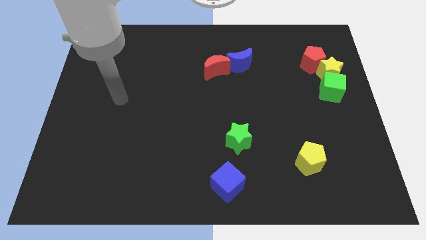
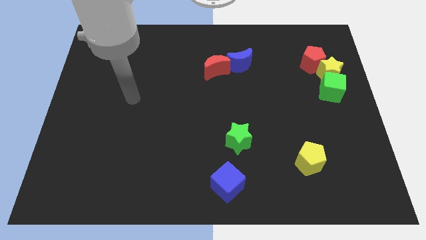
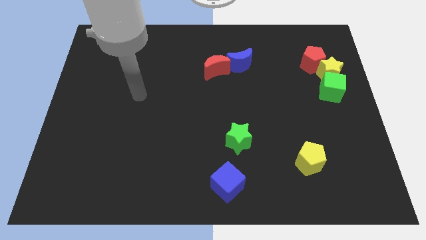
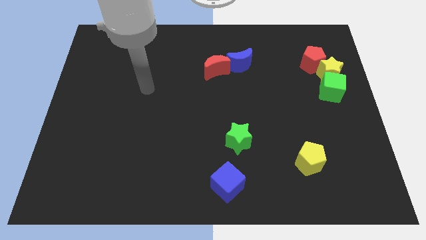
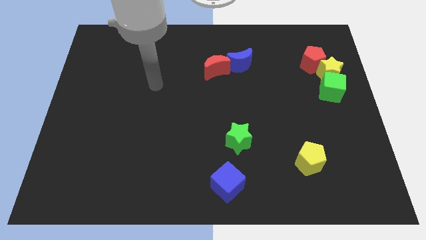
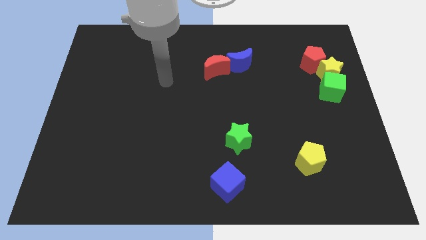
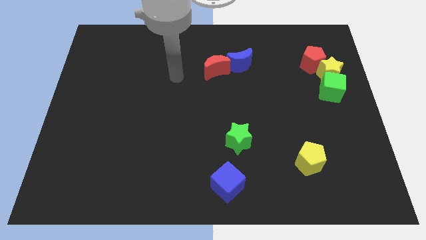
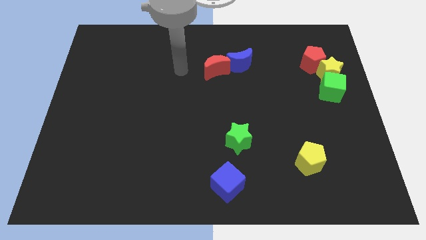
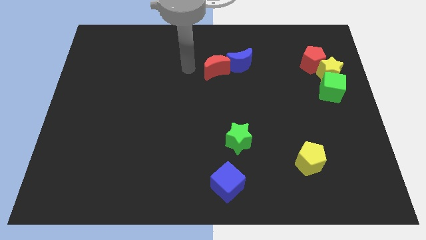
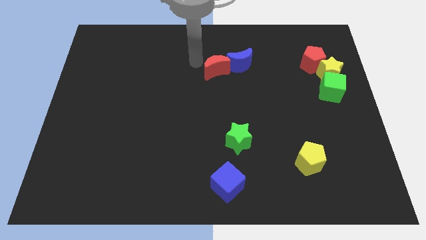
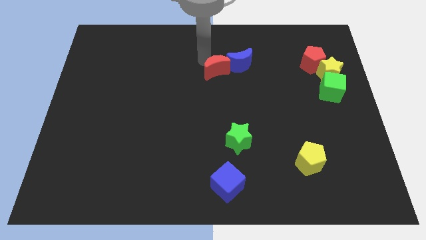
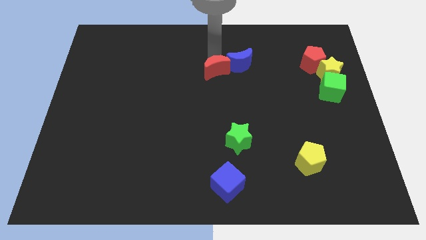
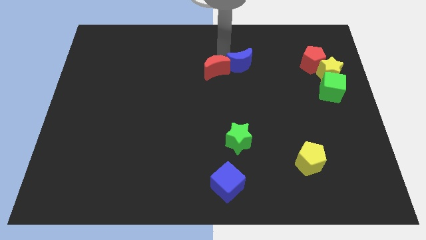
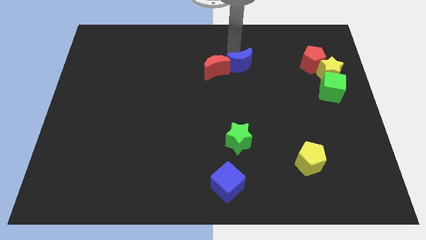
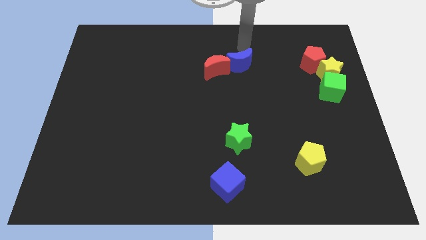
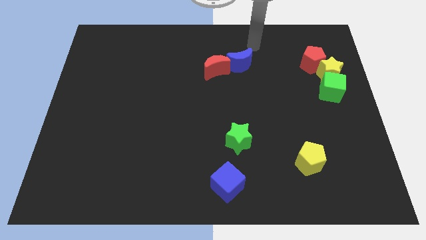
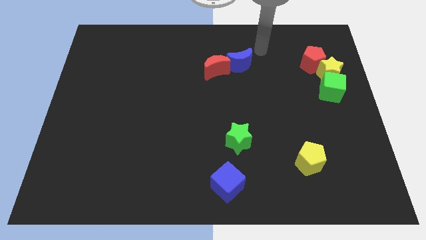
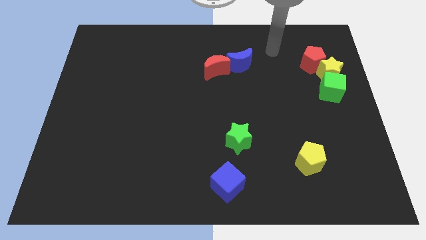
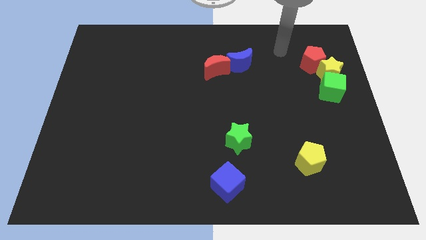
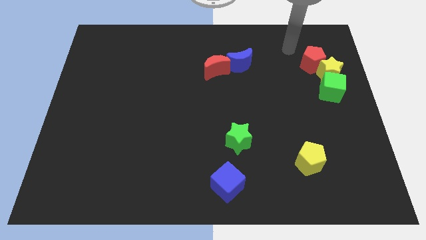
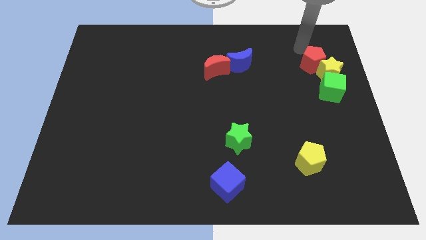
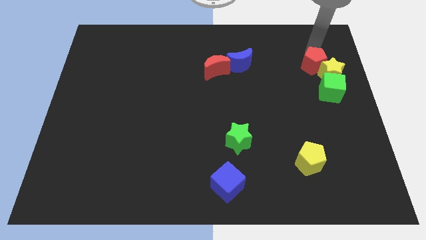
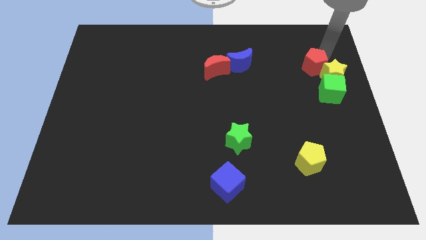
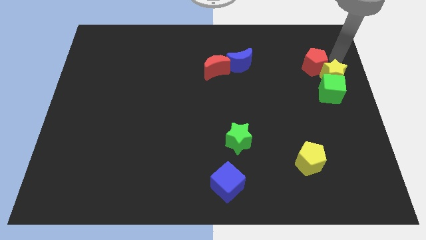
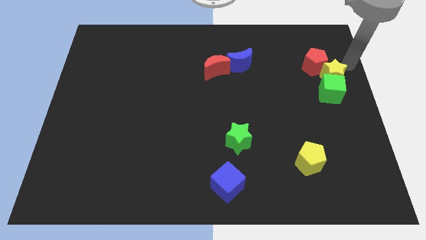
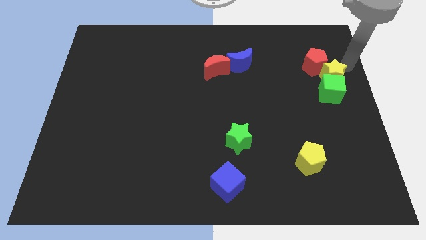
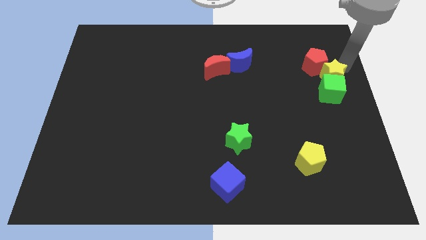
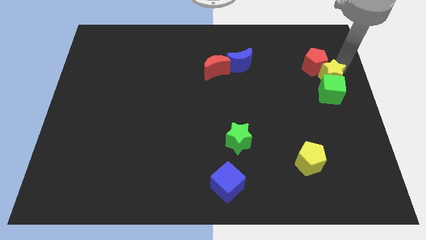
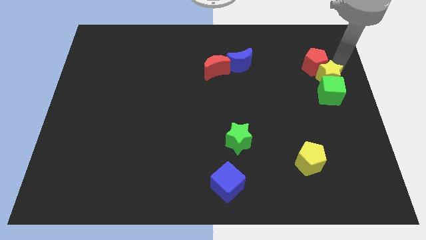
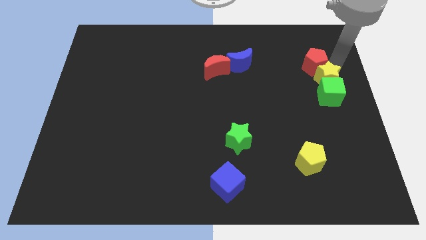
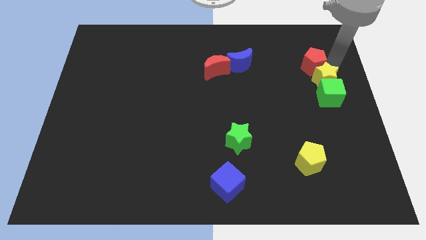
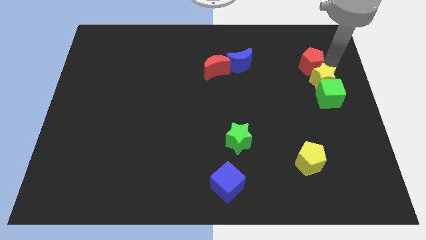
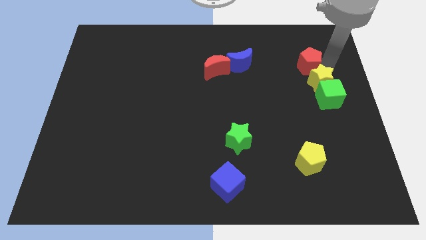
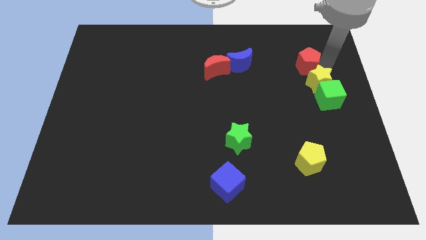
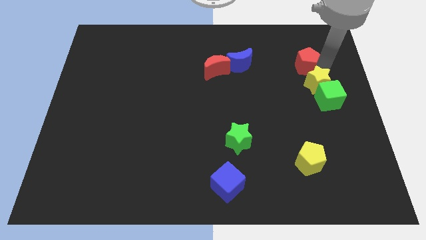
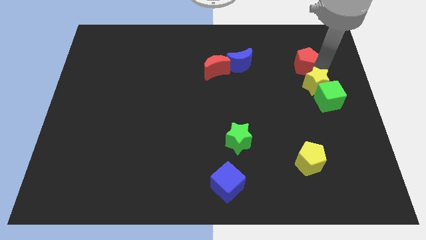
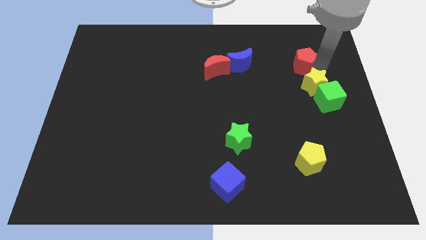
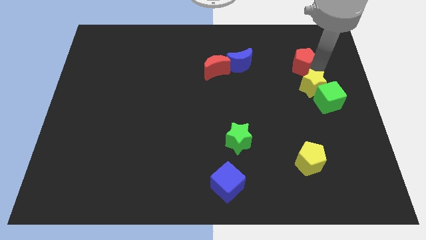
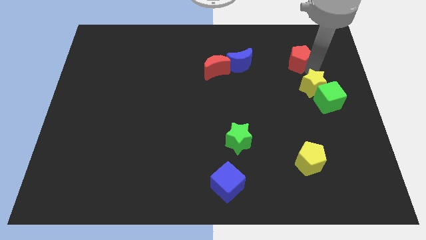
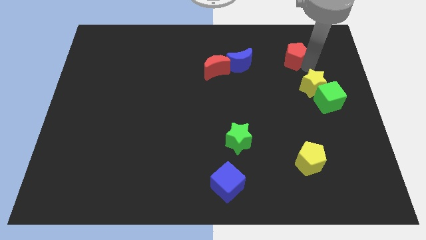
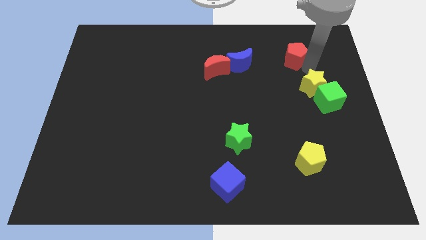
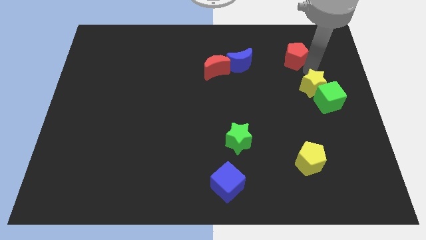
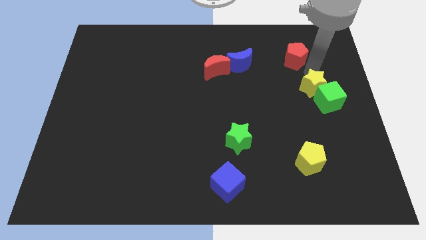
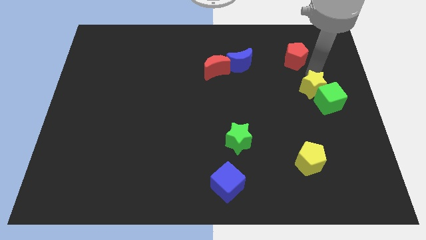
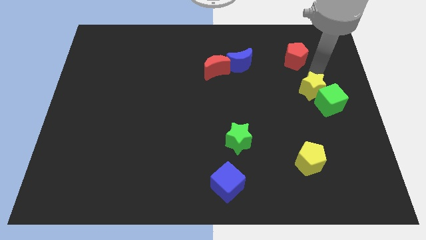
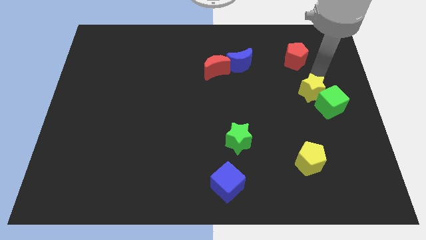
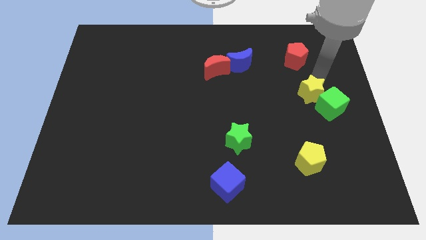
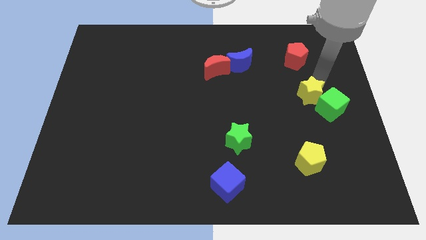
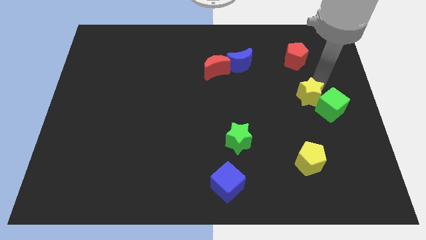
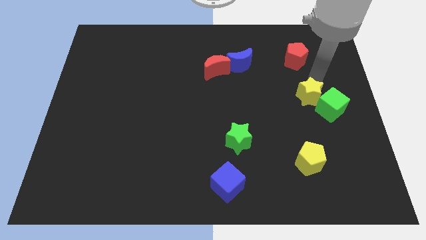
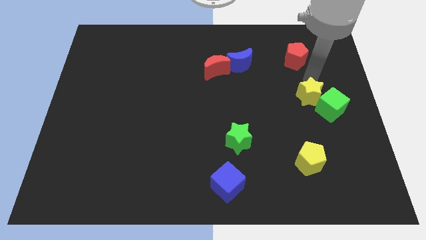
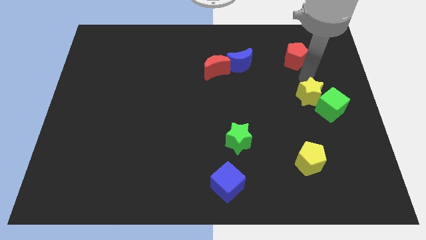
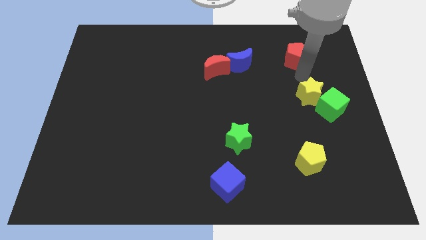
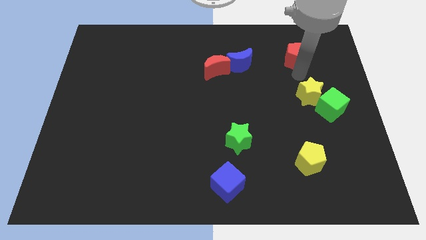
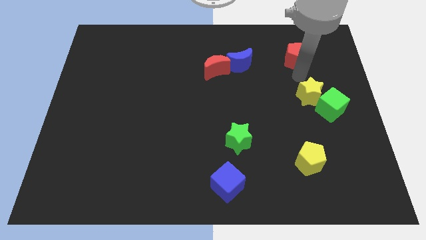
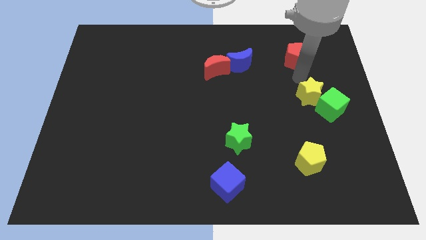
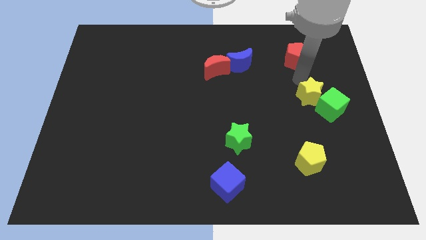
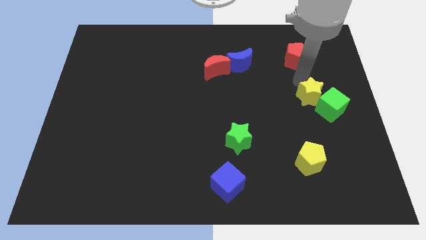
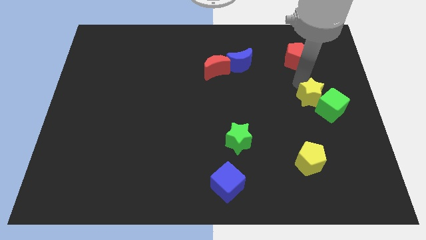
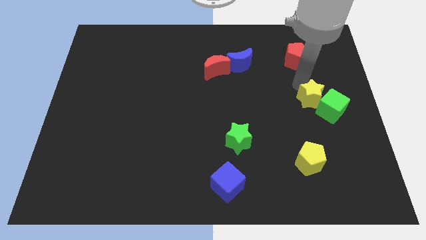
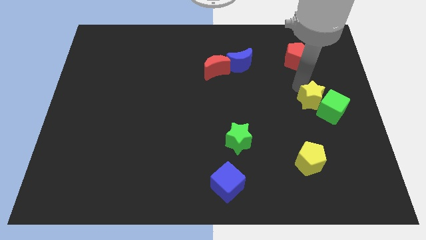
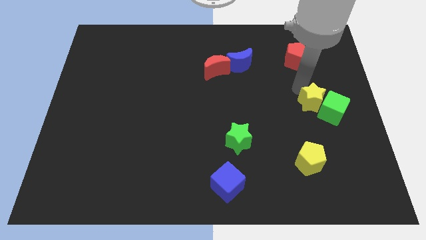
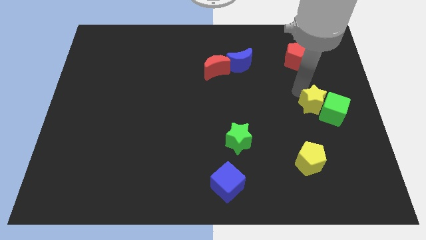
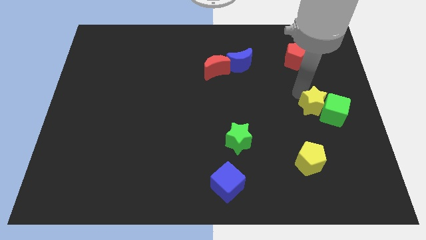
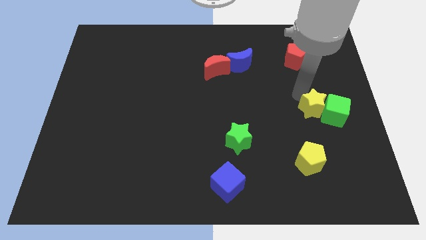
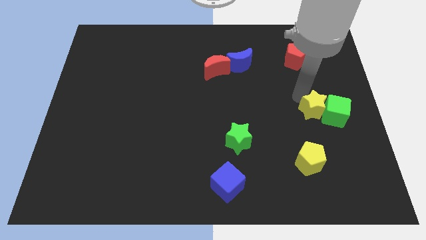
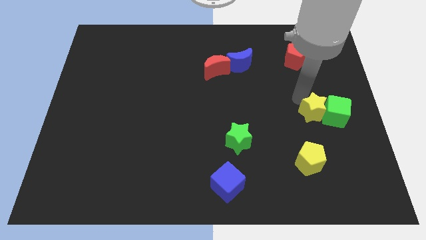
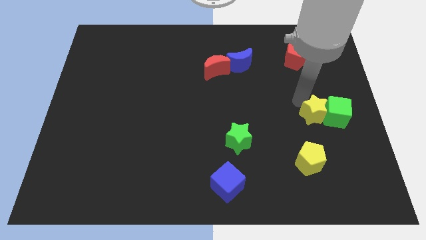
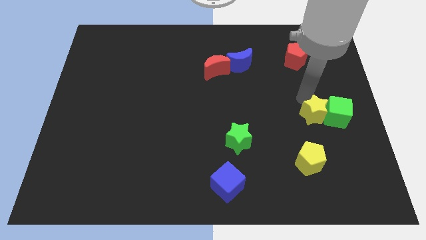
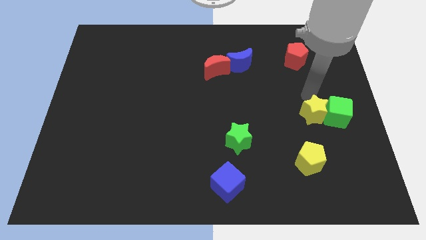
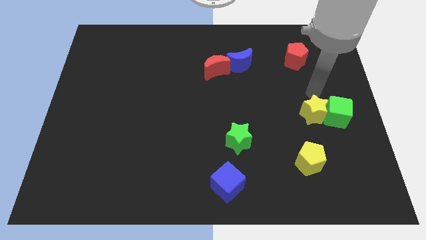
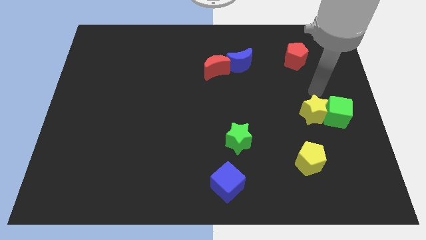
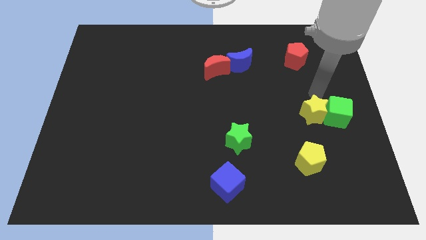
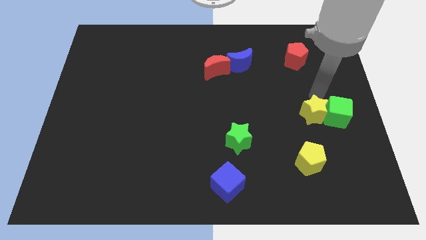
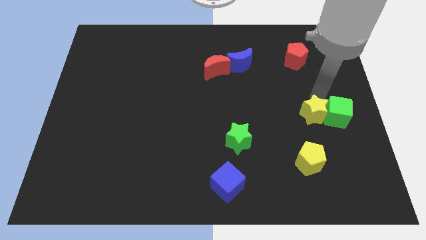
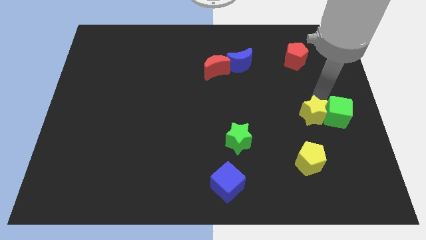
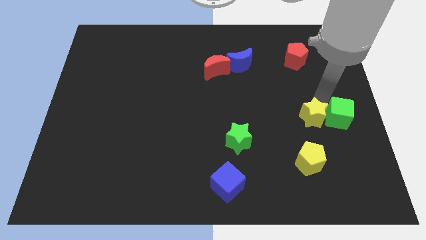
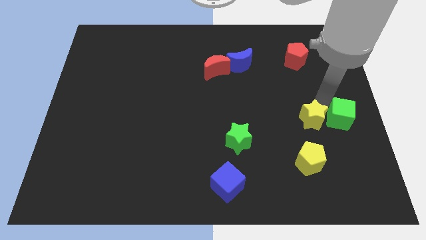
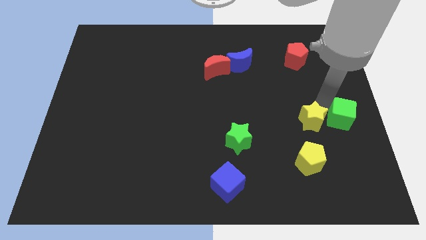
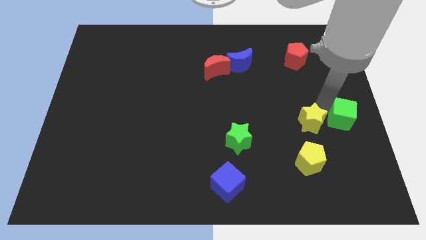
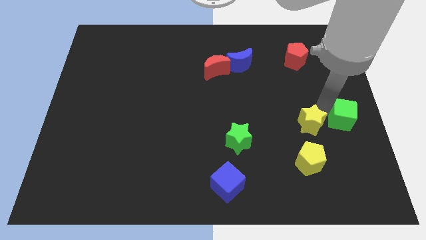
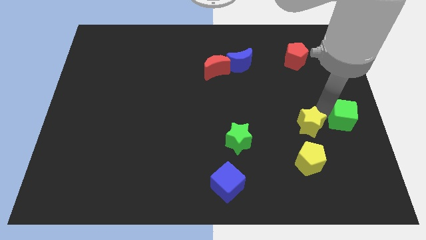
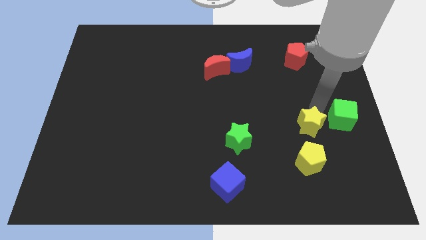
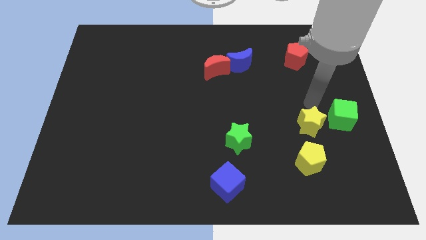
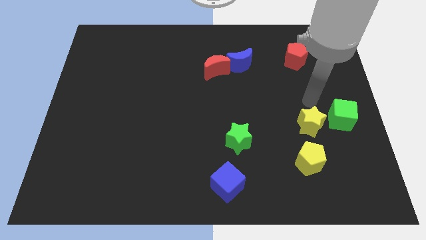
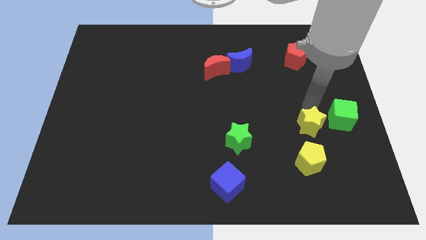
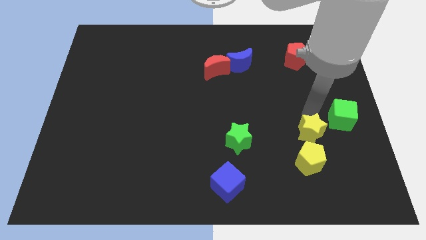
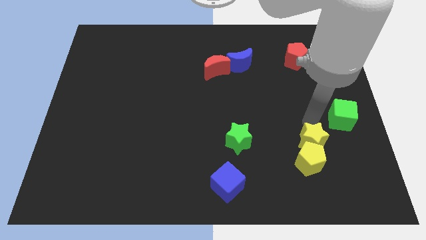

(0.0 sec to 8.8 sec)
push the yellow star to the yellow pentagon
